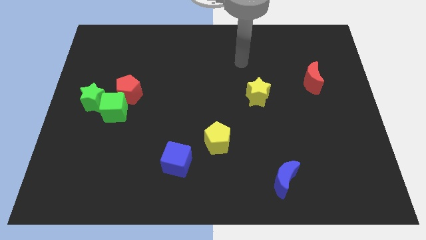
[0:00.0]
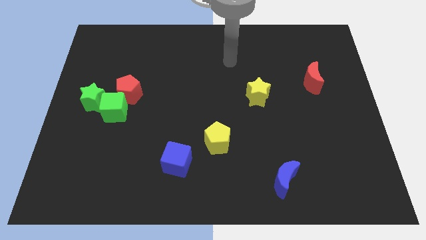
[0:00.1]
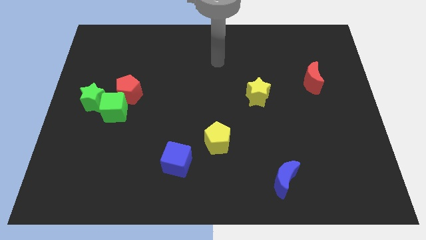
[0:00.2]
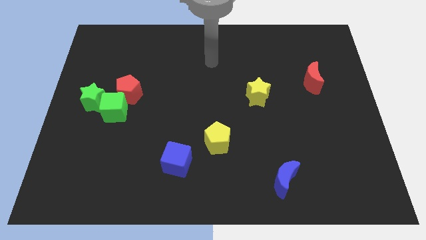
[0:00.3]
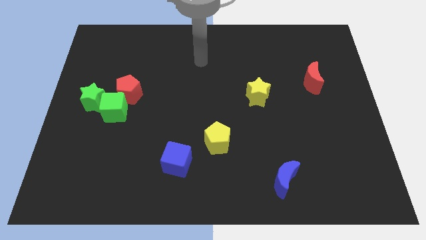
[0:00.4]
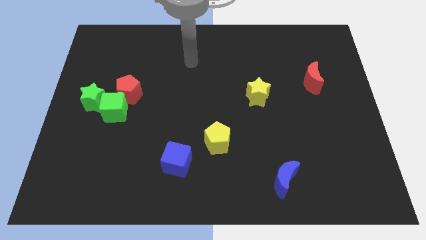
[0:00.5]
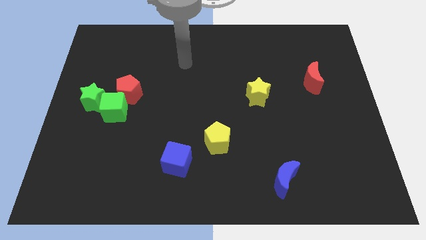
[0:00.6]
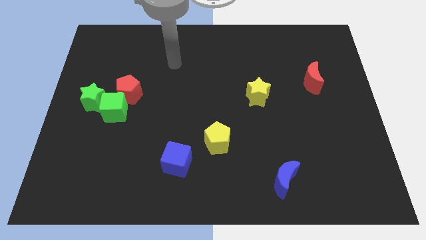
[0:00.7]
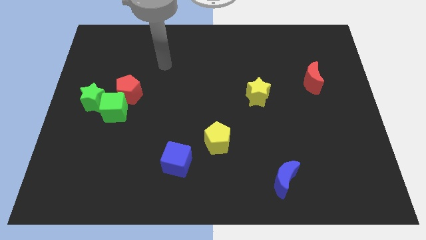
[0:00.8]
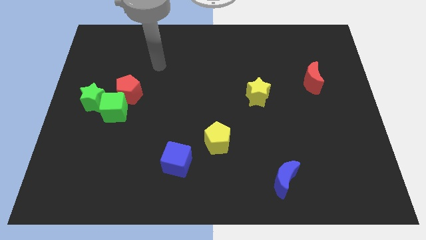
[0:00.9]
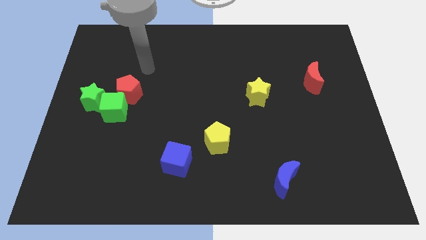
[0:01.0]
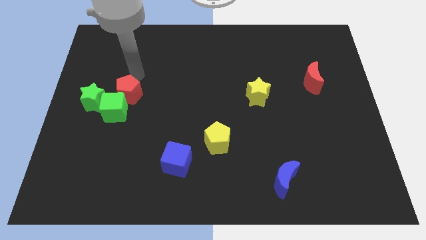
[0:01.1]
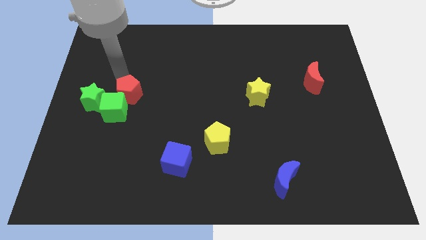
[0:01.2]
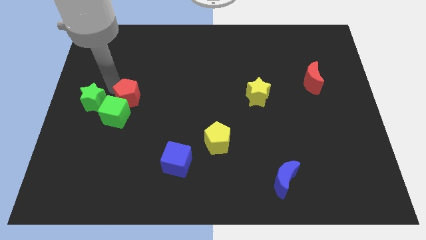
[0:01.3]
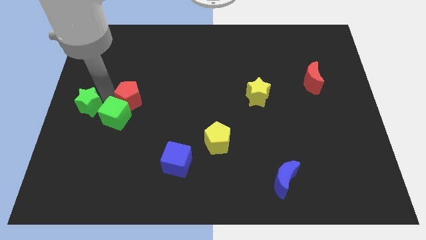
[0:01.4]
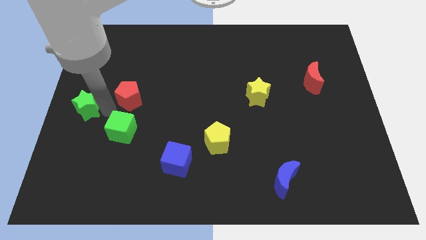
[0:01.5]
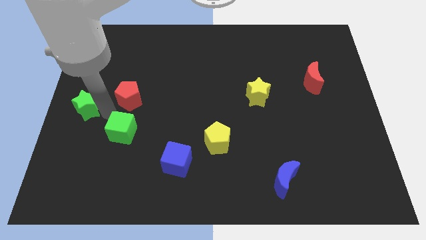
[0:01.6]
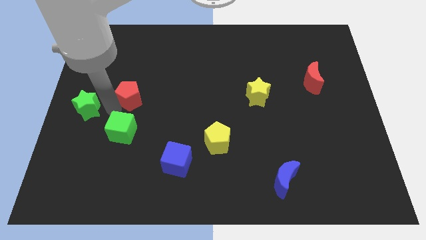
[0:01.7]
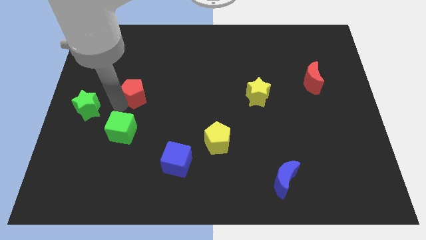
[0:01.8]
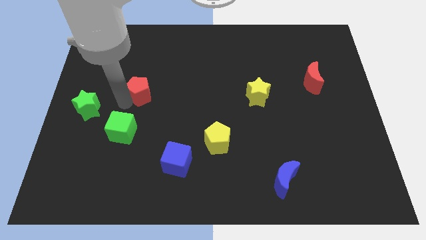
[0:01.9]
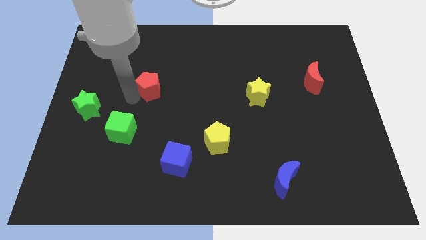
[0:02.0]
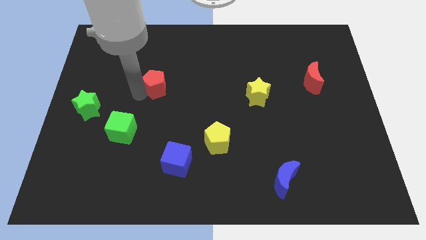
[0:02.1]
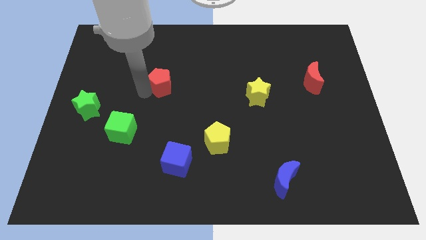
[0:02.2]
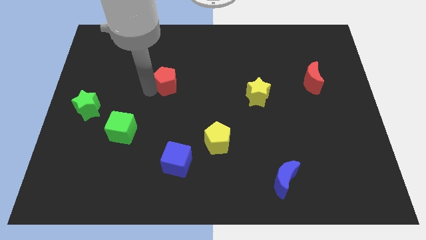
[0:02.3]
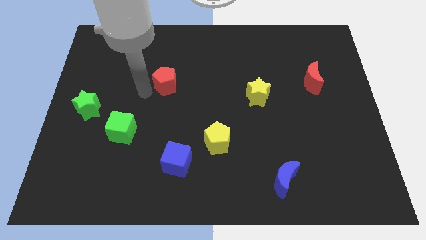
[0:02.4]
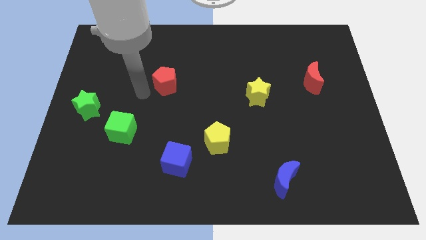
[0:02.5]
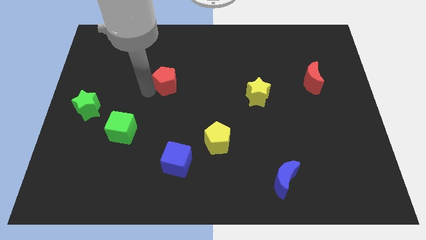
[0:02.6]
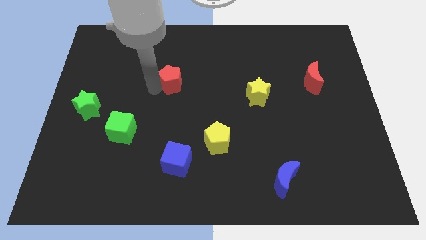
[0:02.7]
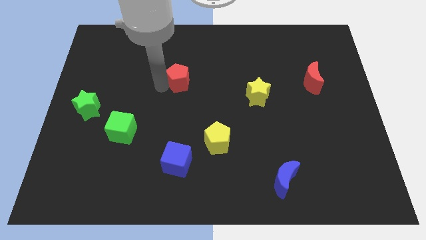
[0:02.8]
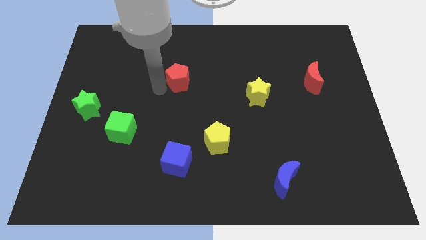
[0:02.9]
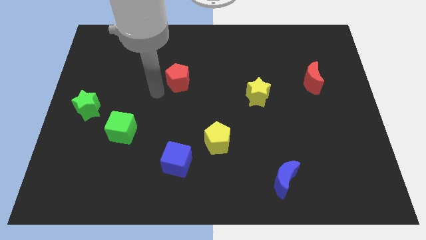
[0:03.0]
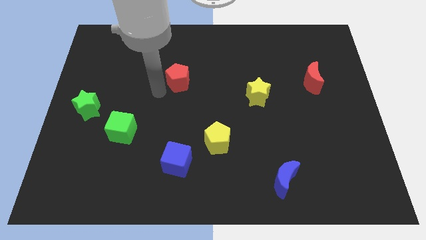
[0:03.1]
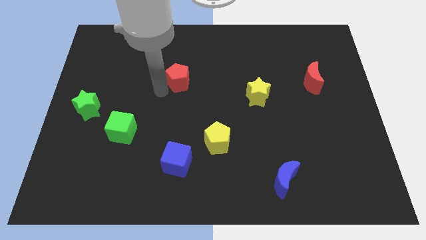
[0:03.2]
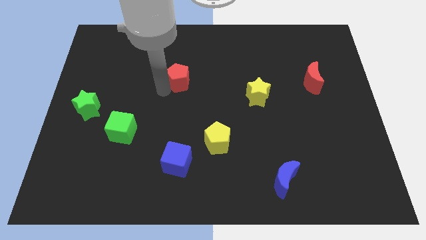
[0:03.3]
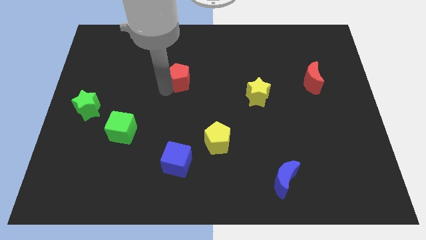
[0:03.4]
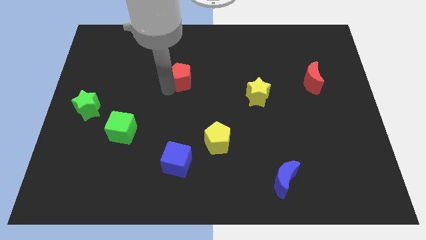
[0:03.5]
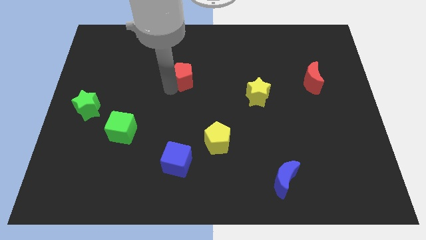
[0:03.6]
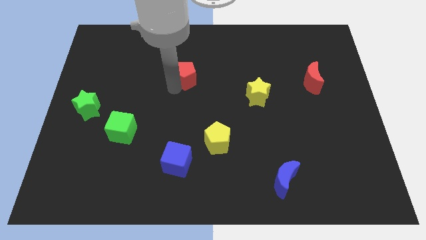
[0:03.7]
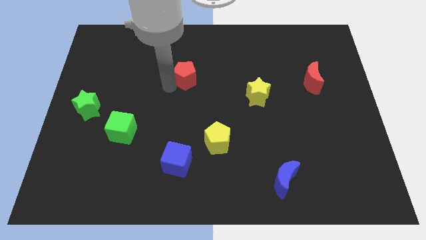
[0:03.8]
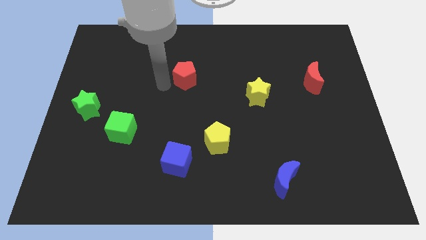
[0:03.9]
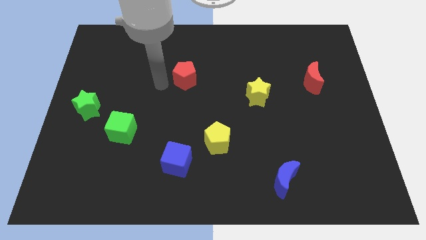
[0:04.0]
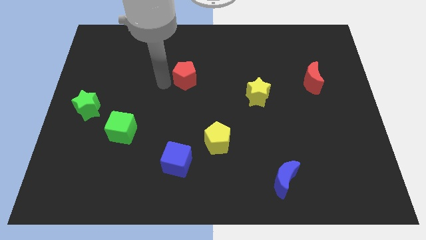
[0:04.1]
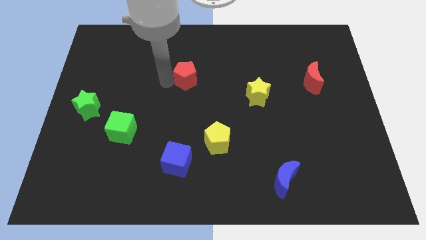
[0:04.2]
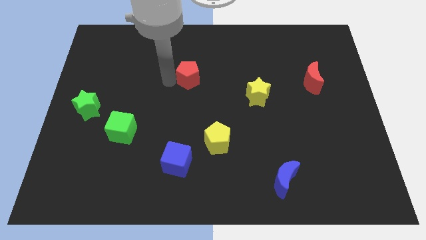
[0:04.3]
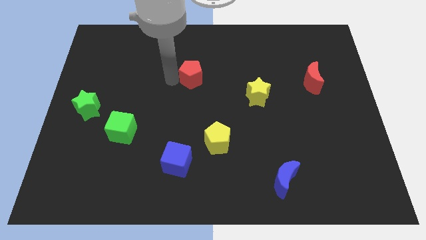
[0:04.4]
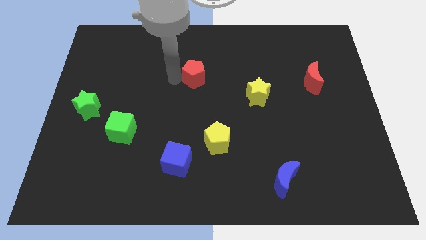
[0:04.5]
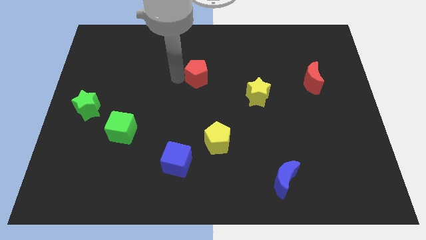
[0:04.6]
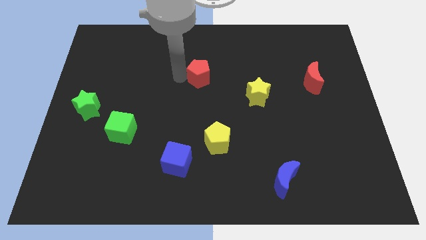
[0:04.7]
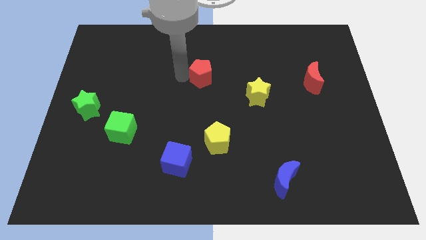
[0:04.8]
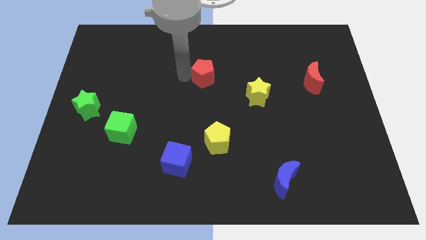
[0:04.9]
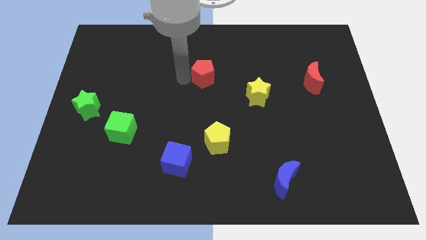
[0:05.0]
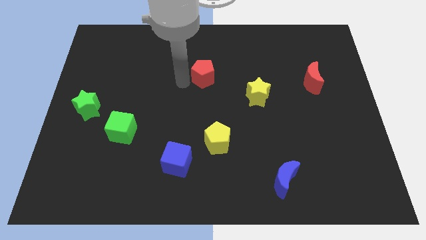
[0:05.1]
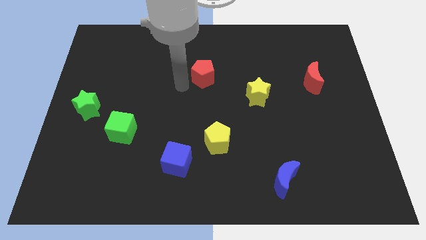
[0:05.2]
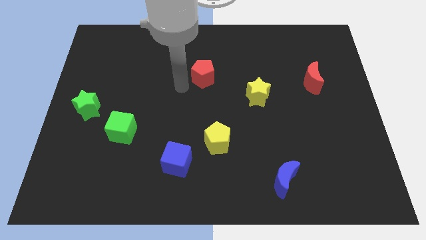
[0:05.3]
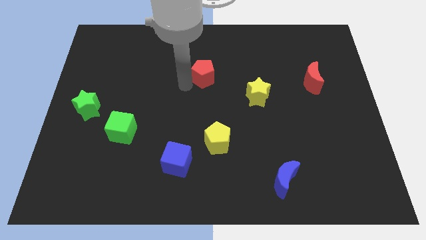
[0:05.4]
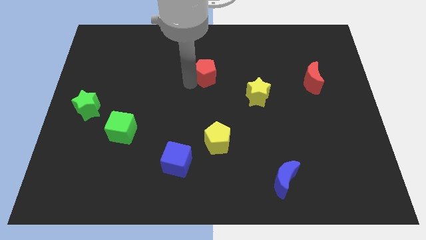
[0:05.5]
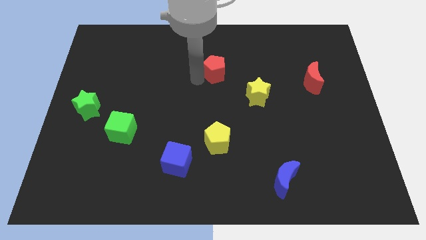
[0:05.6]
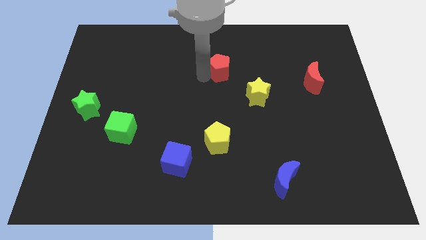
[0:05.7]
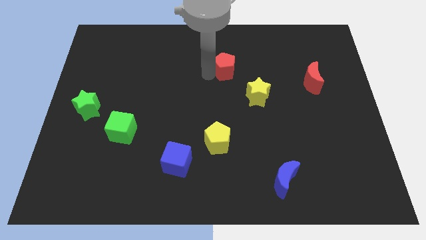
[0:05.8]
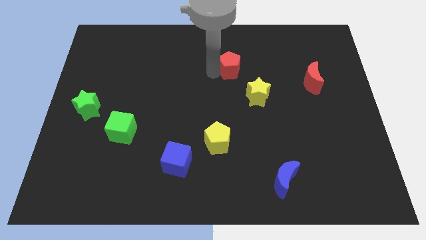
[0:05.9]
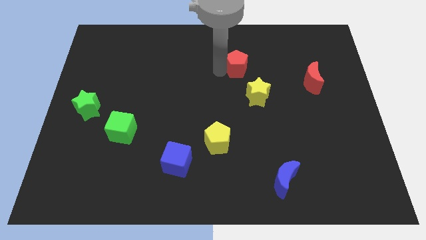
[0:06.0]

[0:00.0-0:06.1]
slide the red pentagon above the yellow star

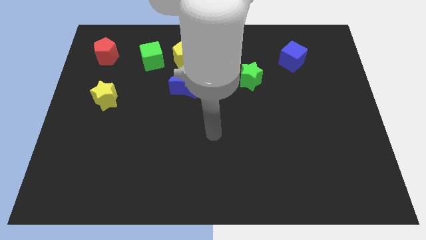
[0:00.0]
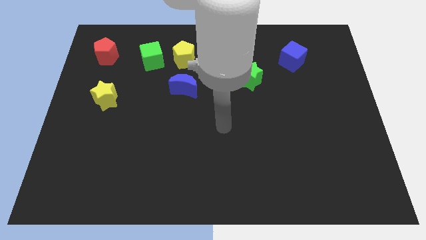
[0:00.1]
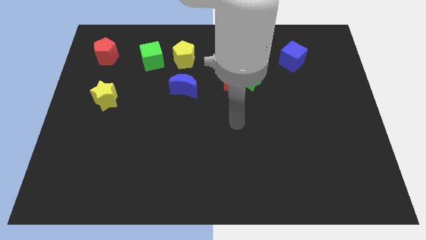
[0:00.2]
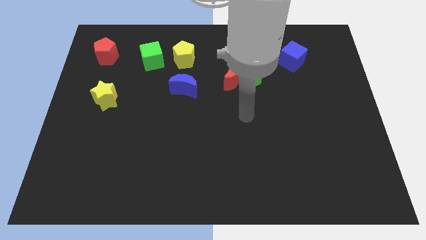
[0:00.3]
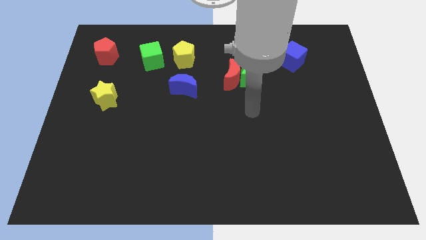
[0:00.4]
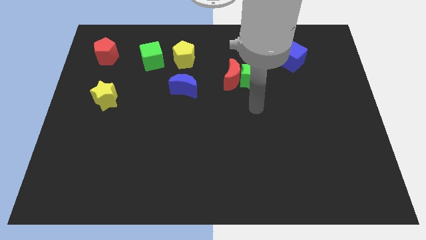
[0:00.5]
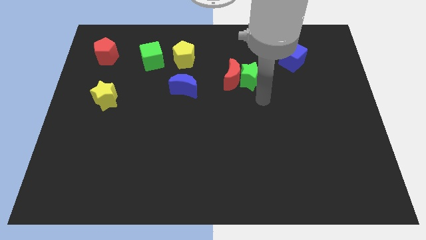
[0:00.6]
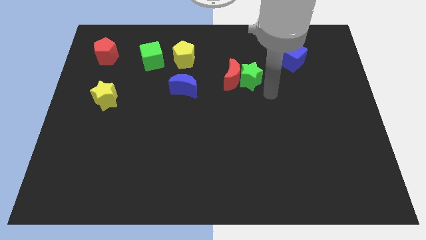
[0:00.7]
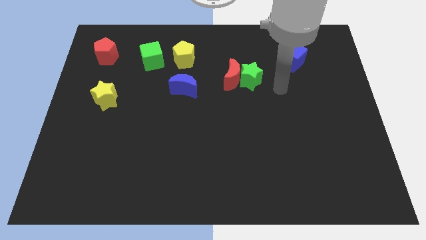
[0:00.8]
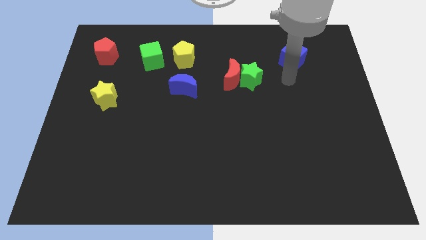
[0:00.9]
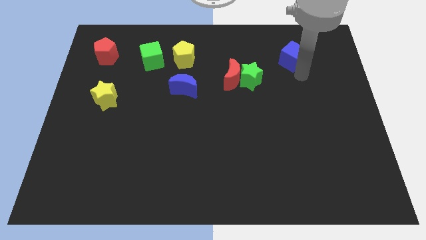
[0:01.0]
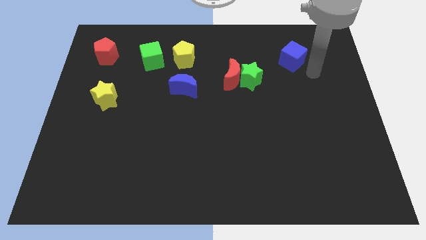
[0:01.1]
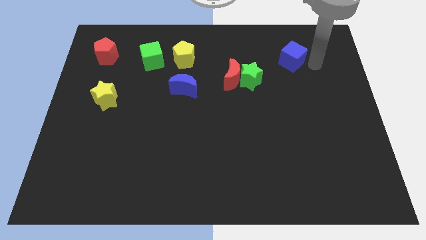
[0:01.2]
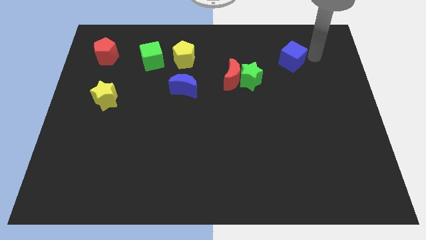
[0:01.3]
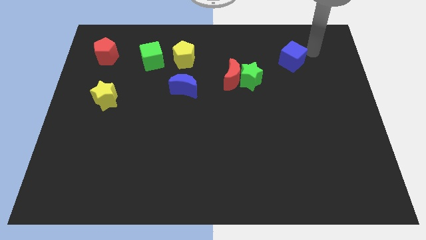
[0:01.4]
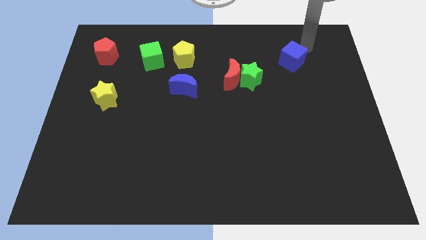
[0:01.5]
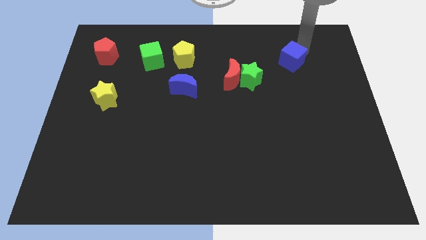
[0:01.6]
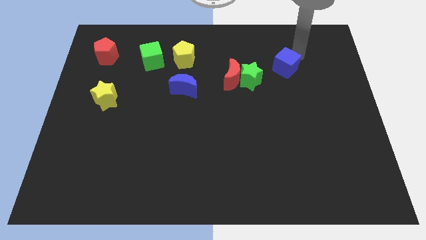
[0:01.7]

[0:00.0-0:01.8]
push the blue cube to the right side of the red moon

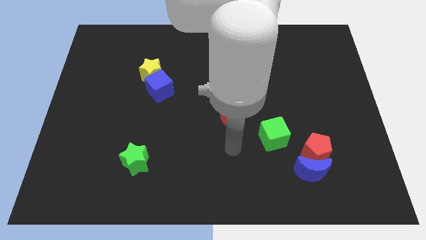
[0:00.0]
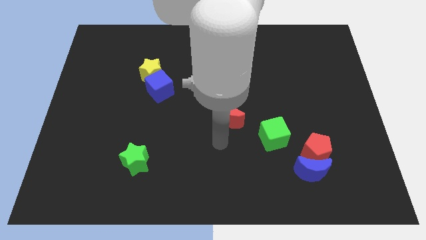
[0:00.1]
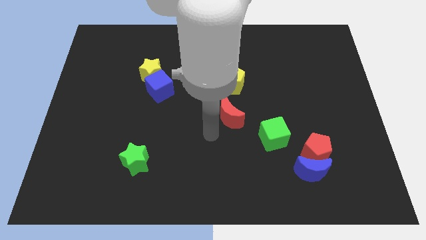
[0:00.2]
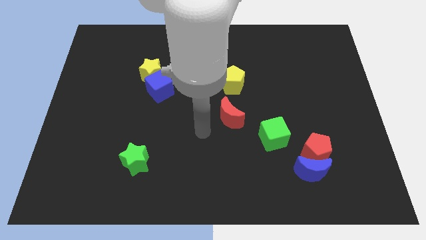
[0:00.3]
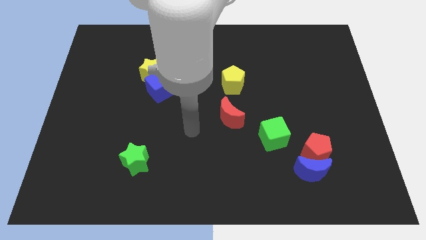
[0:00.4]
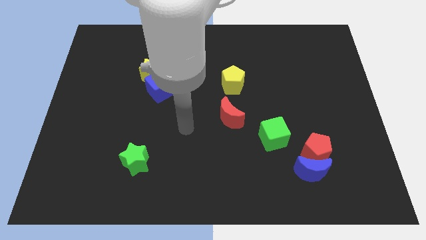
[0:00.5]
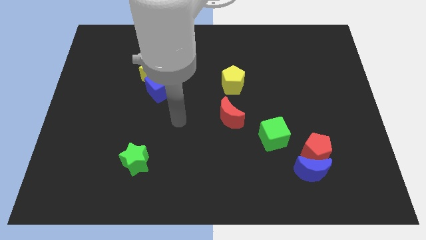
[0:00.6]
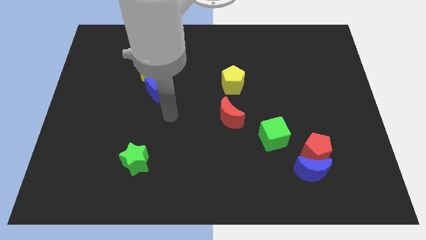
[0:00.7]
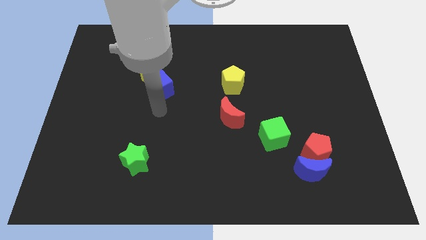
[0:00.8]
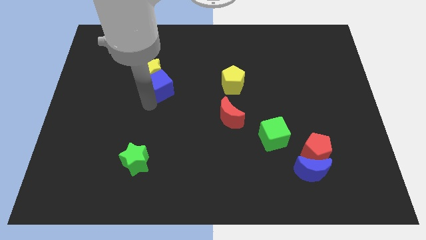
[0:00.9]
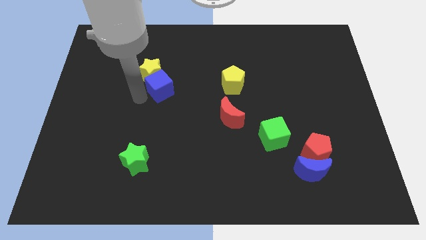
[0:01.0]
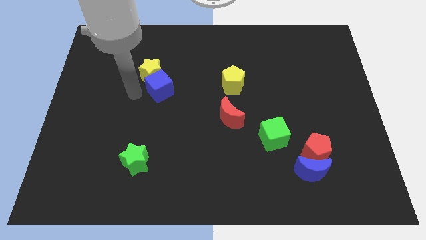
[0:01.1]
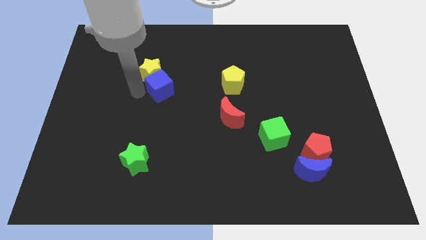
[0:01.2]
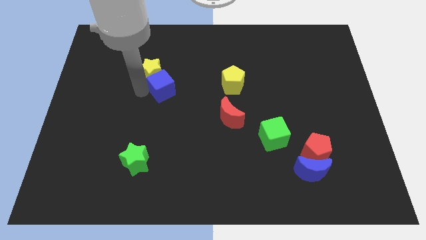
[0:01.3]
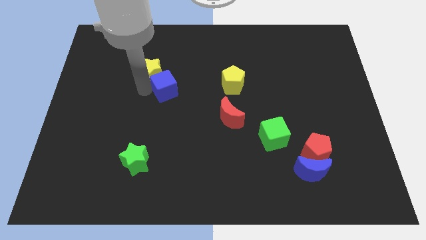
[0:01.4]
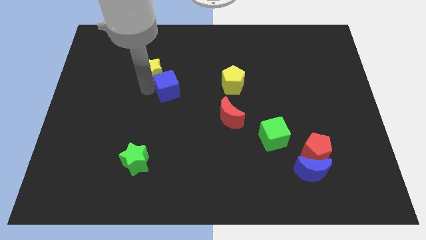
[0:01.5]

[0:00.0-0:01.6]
push the blue cube to the left side of the yellow pentagon
